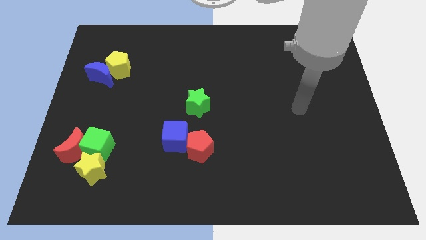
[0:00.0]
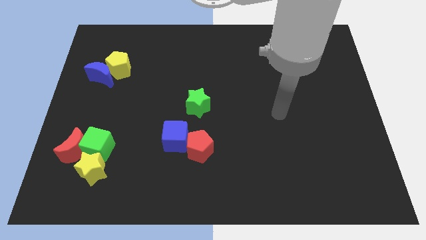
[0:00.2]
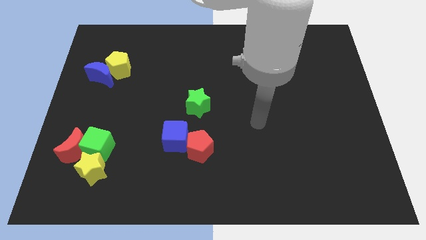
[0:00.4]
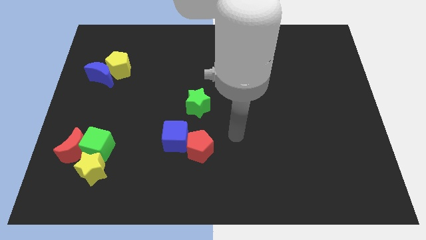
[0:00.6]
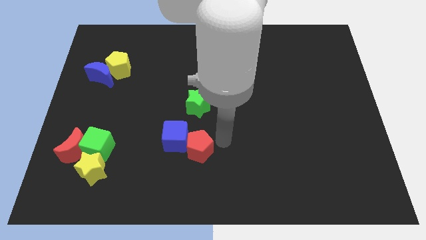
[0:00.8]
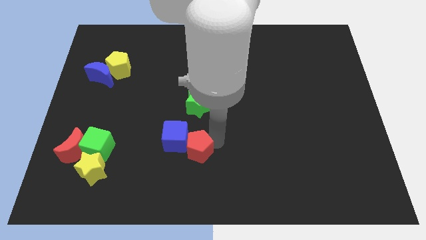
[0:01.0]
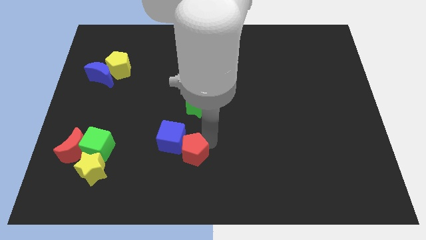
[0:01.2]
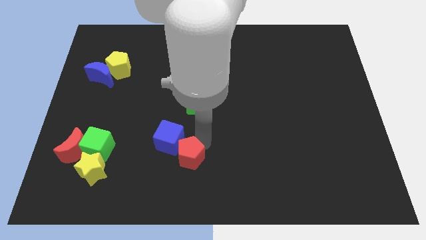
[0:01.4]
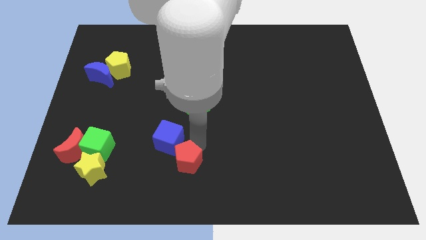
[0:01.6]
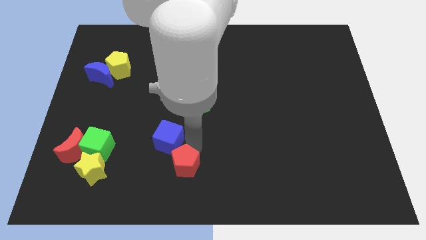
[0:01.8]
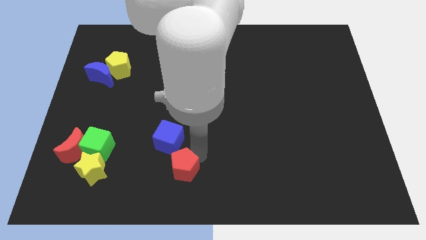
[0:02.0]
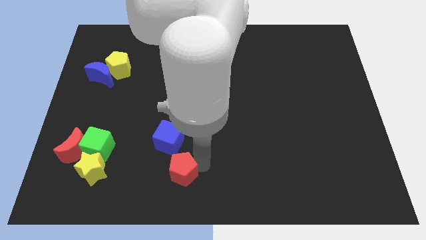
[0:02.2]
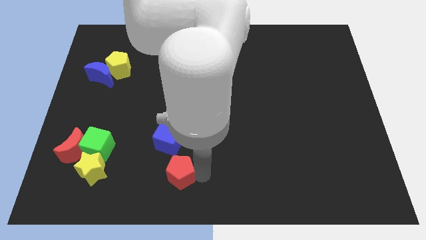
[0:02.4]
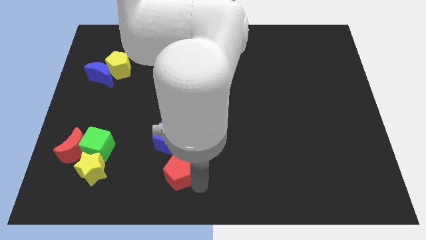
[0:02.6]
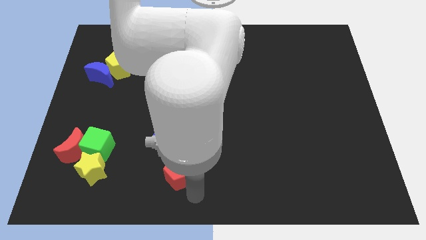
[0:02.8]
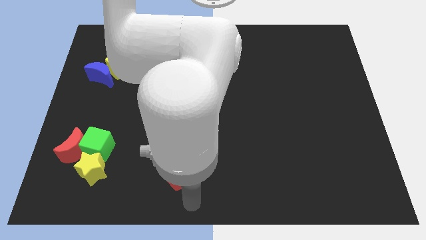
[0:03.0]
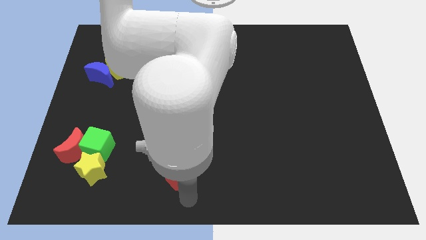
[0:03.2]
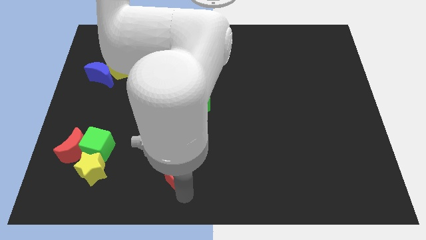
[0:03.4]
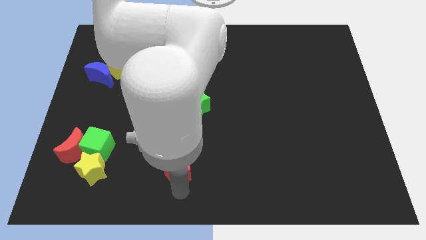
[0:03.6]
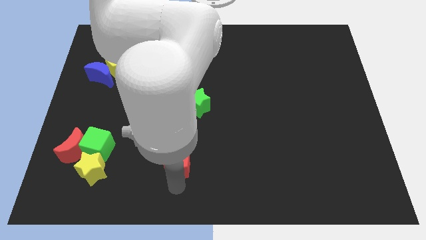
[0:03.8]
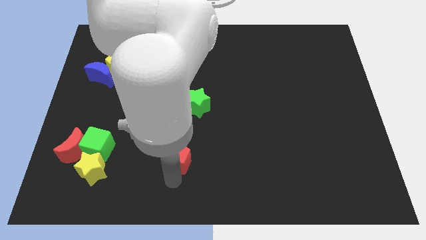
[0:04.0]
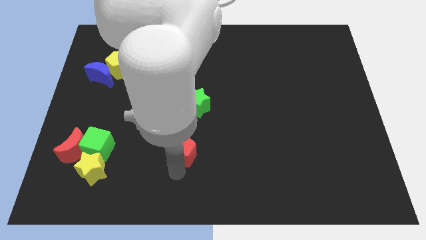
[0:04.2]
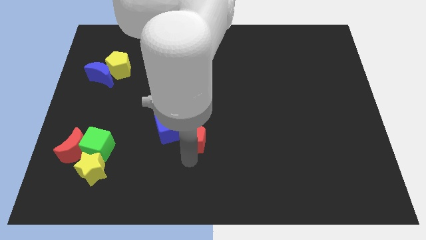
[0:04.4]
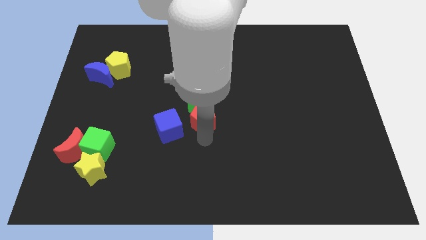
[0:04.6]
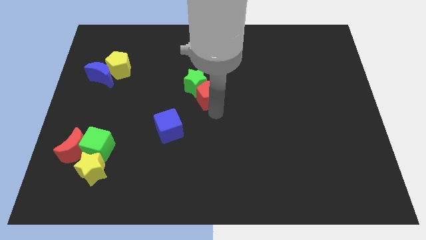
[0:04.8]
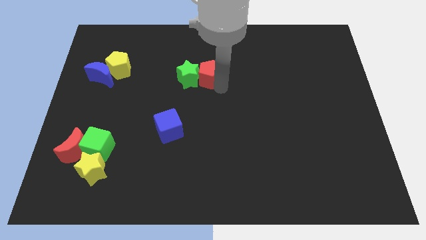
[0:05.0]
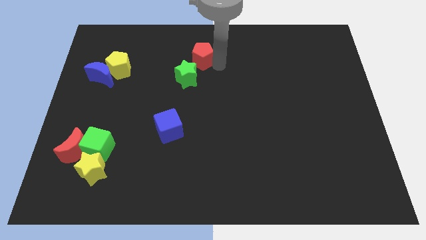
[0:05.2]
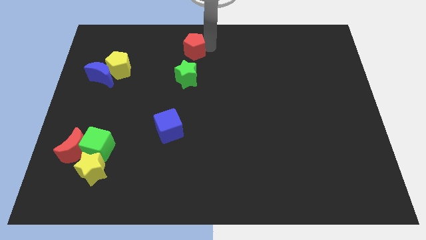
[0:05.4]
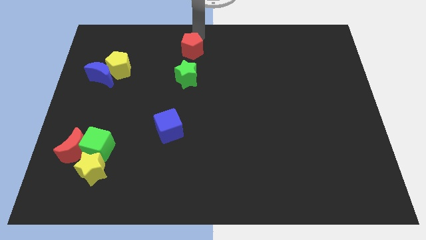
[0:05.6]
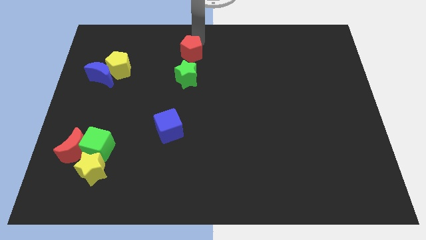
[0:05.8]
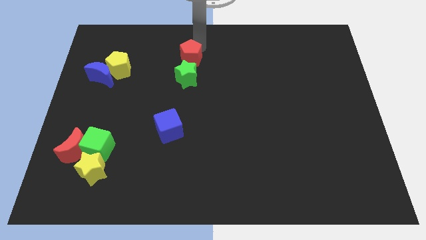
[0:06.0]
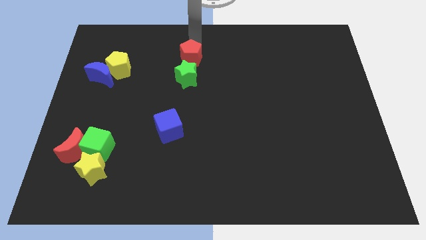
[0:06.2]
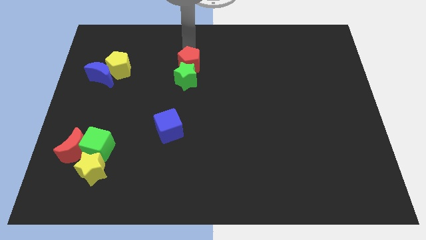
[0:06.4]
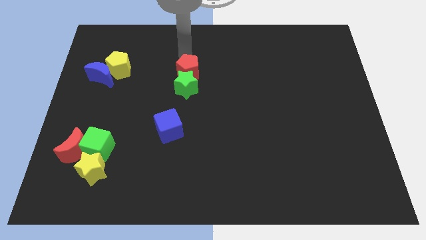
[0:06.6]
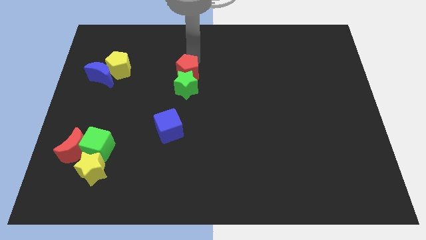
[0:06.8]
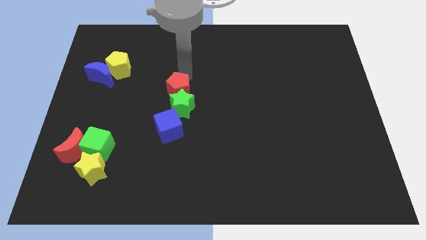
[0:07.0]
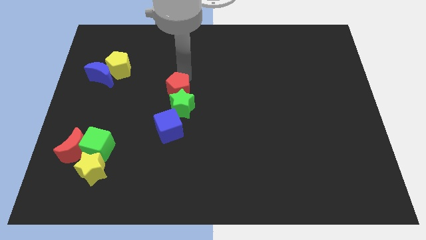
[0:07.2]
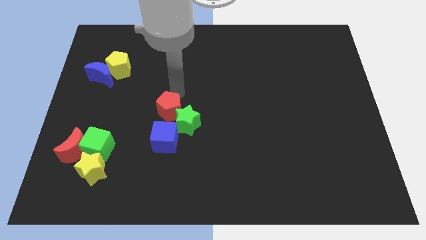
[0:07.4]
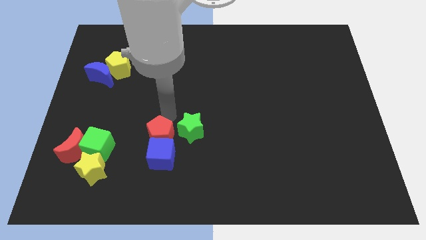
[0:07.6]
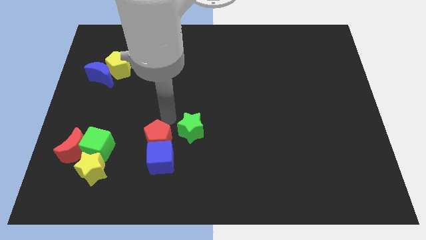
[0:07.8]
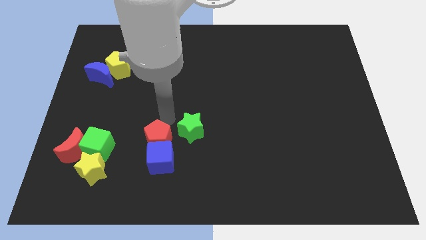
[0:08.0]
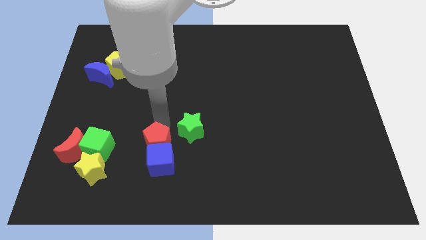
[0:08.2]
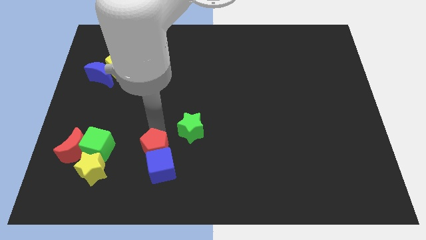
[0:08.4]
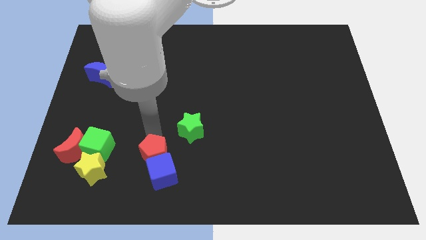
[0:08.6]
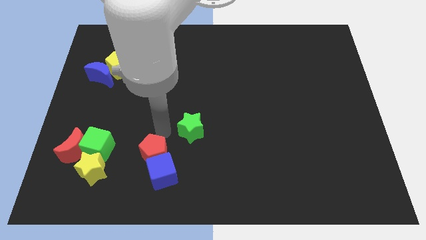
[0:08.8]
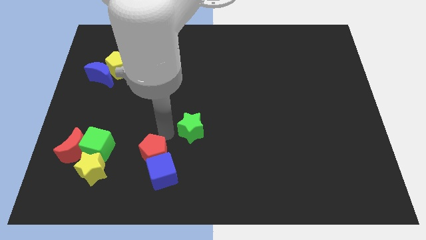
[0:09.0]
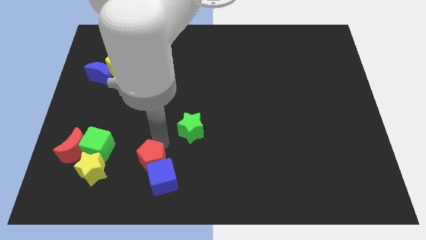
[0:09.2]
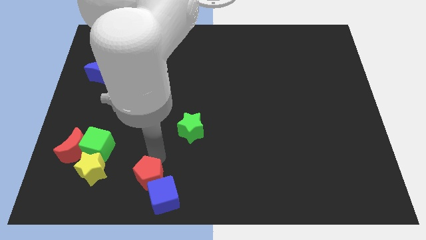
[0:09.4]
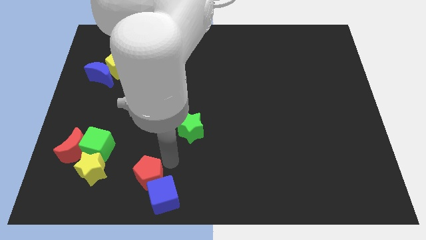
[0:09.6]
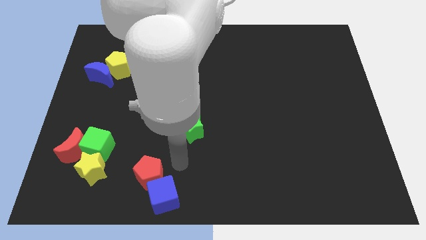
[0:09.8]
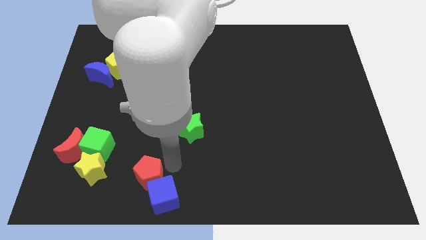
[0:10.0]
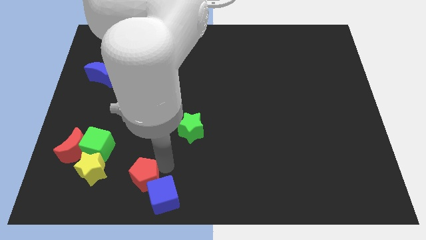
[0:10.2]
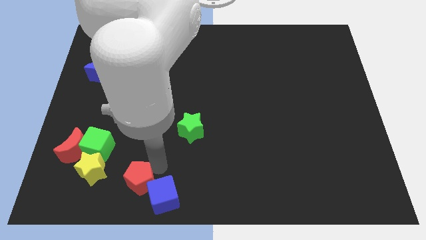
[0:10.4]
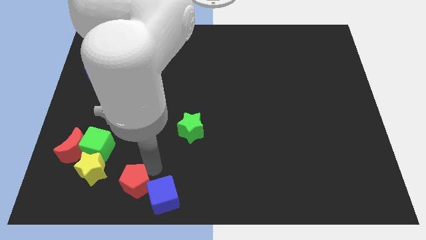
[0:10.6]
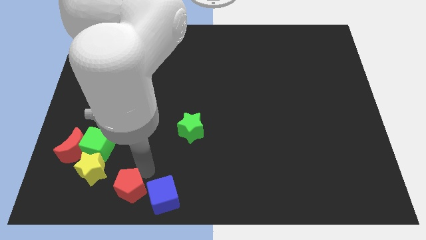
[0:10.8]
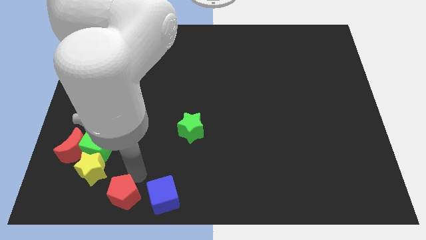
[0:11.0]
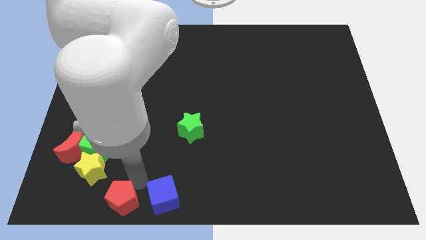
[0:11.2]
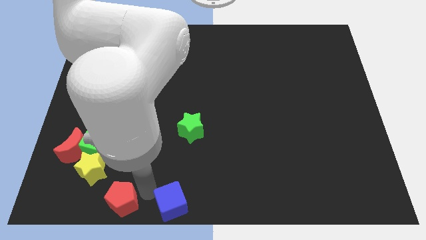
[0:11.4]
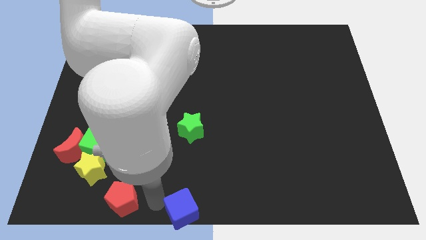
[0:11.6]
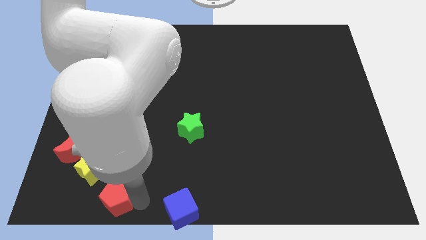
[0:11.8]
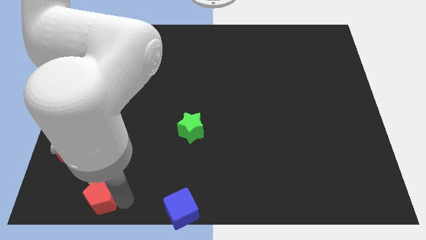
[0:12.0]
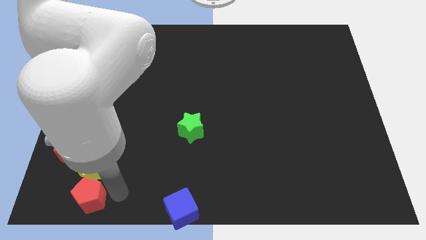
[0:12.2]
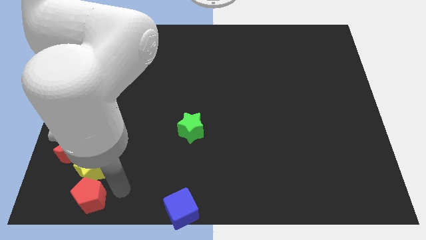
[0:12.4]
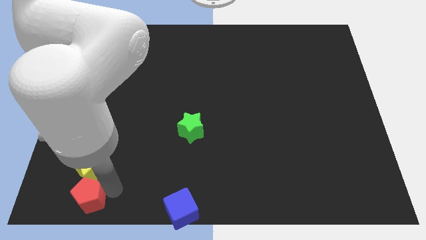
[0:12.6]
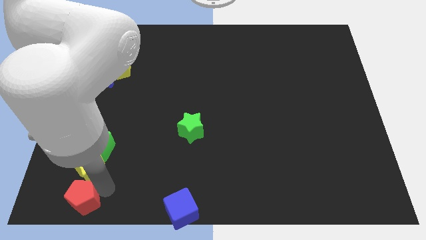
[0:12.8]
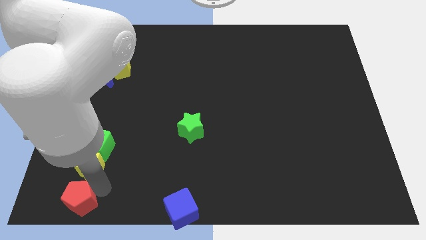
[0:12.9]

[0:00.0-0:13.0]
slide the red pentagon to the bottom left of the board
